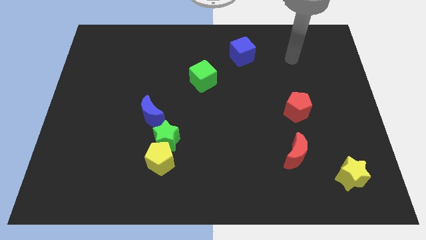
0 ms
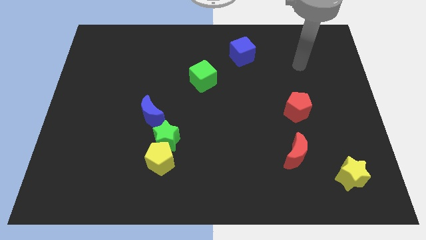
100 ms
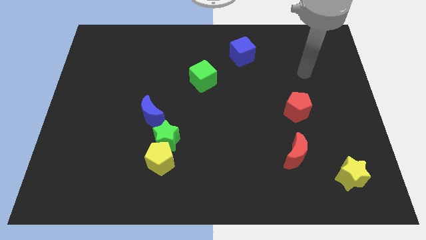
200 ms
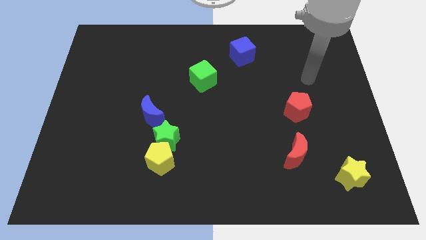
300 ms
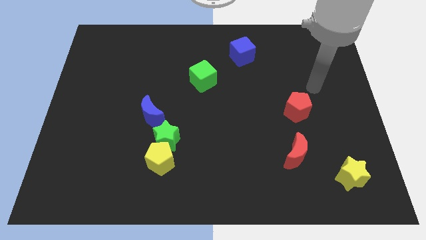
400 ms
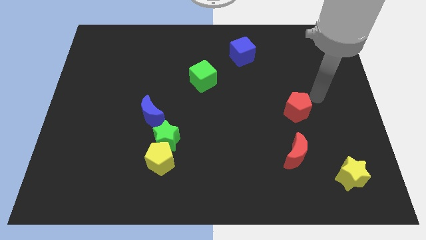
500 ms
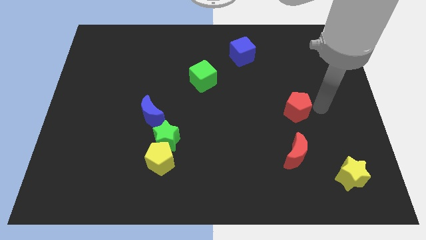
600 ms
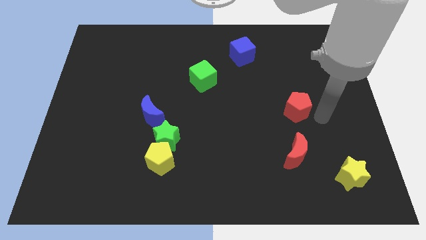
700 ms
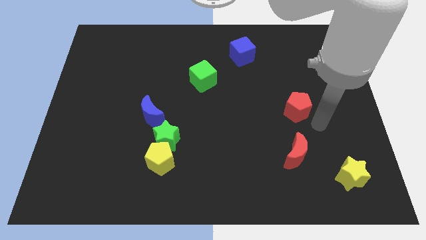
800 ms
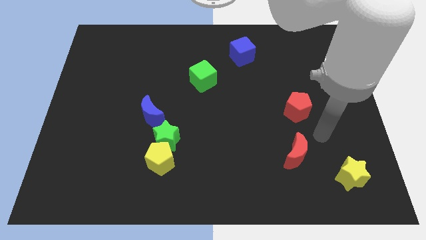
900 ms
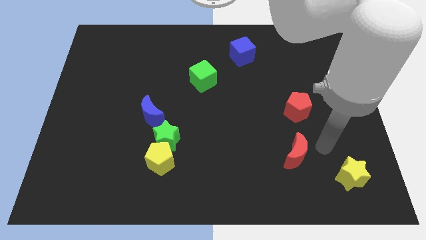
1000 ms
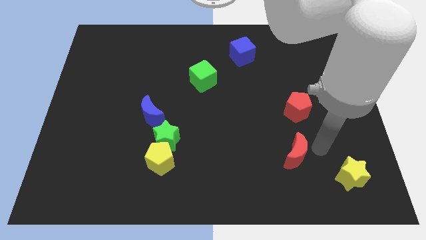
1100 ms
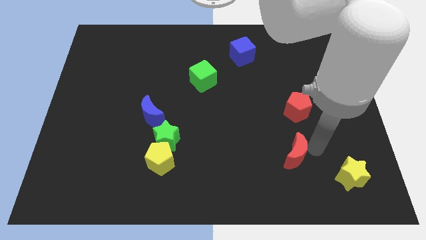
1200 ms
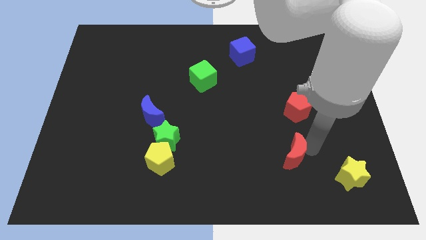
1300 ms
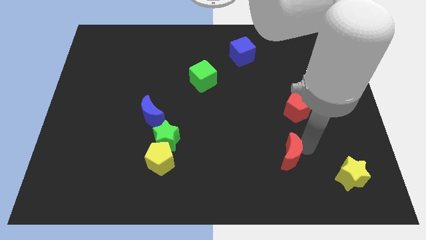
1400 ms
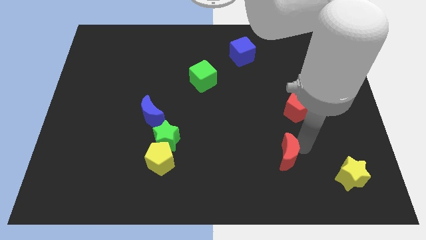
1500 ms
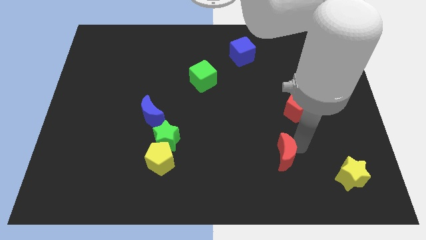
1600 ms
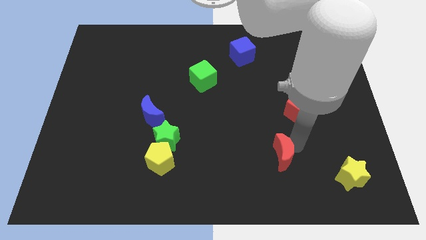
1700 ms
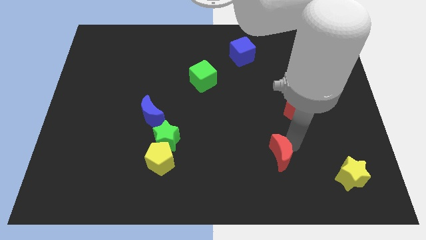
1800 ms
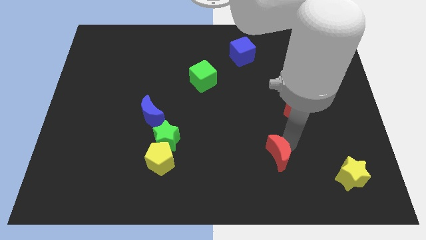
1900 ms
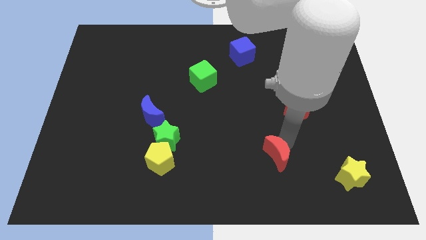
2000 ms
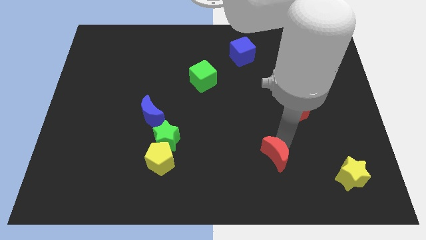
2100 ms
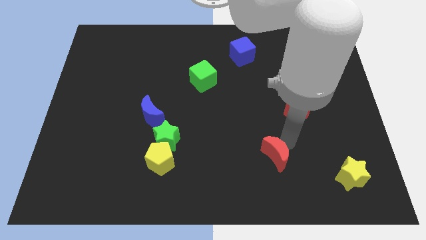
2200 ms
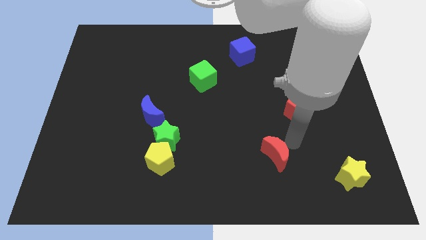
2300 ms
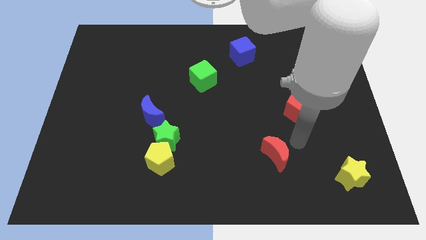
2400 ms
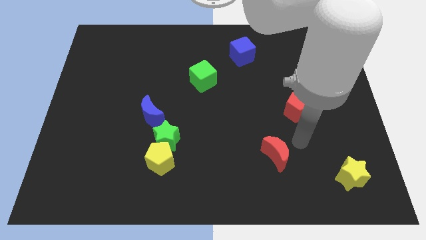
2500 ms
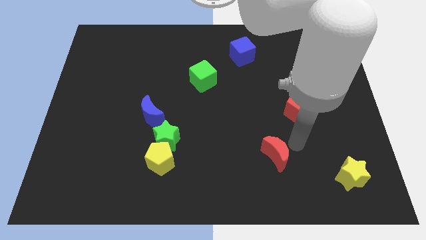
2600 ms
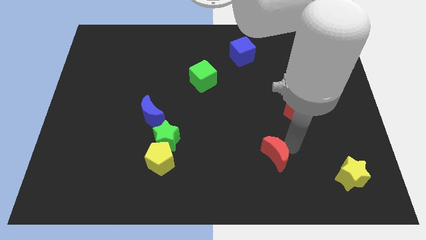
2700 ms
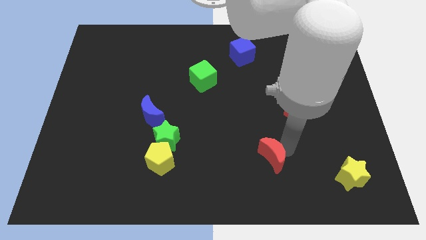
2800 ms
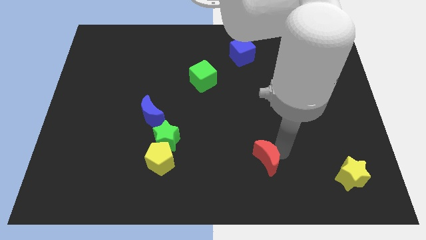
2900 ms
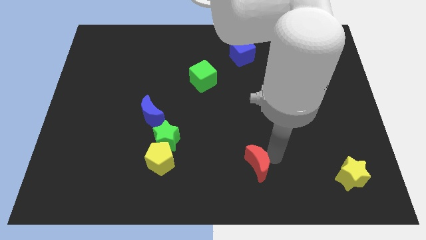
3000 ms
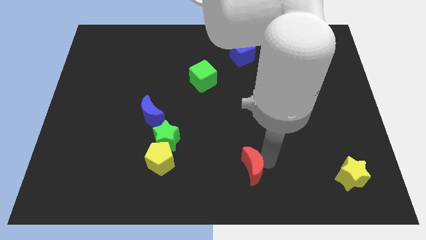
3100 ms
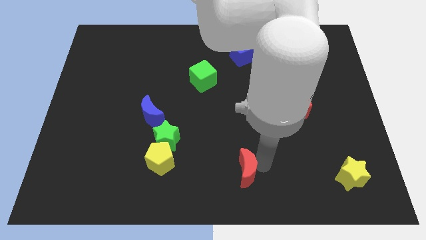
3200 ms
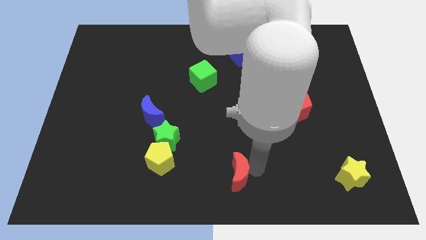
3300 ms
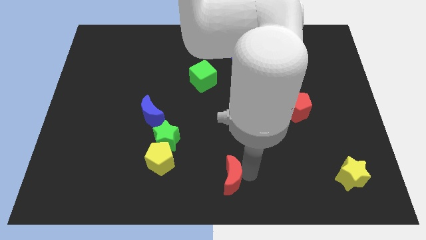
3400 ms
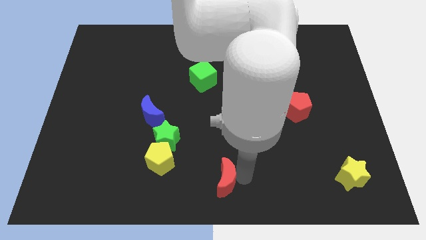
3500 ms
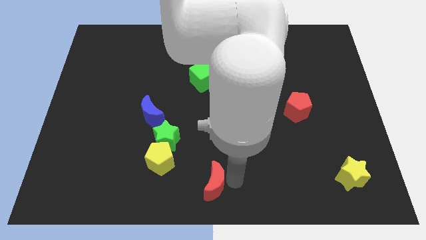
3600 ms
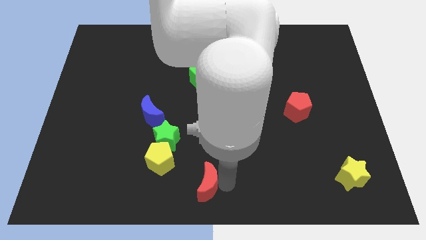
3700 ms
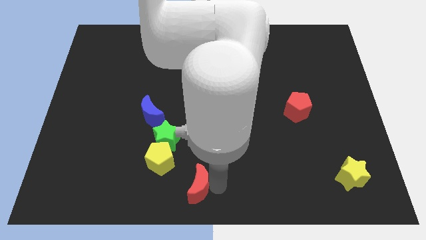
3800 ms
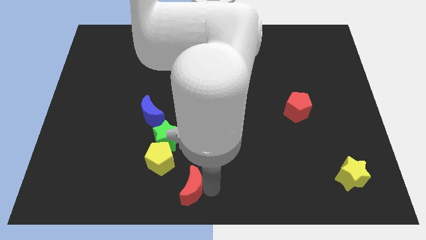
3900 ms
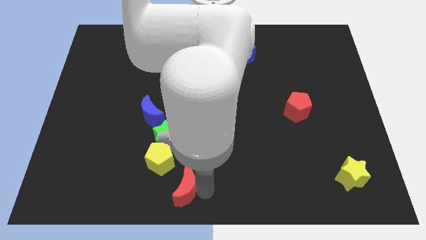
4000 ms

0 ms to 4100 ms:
push the red moon left

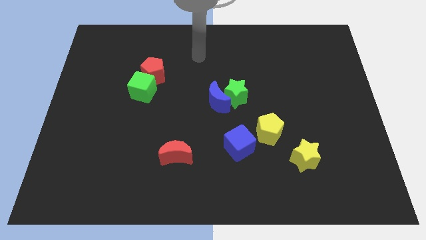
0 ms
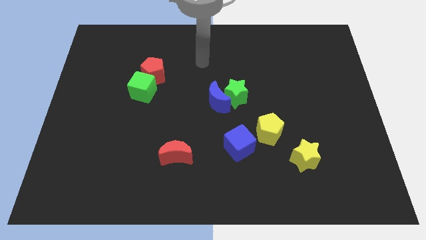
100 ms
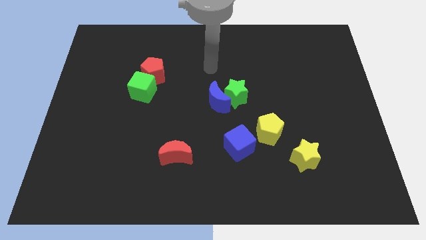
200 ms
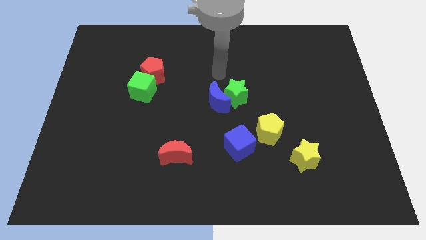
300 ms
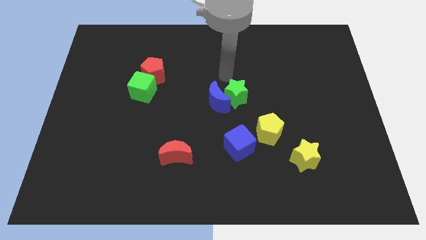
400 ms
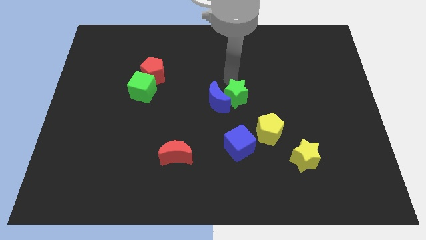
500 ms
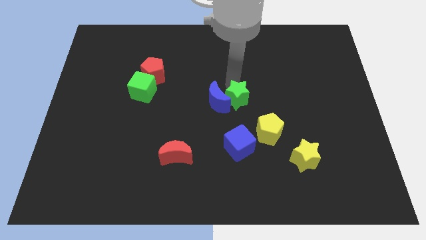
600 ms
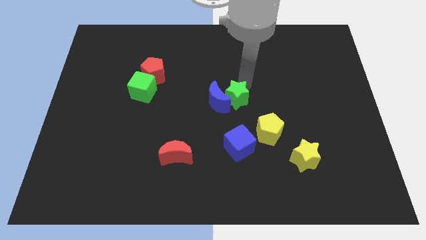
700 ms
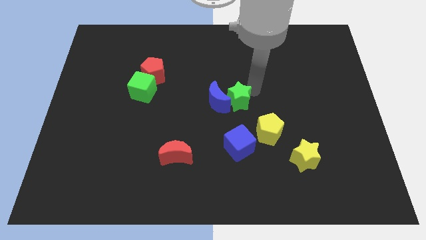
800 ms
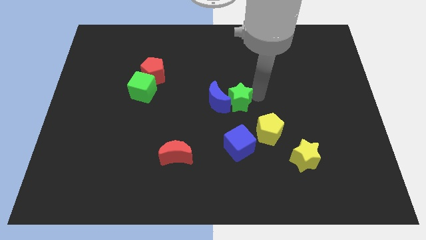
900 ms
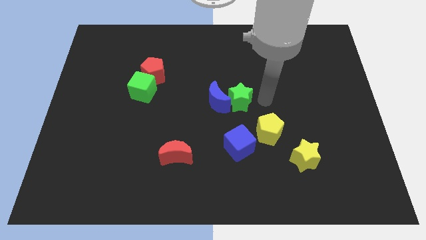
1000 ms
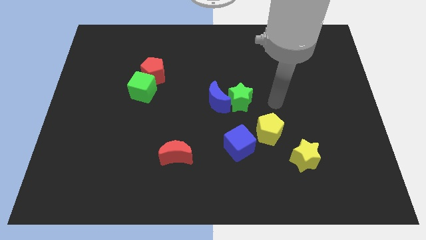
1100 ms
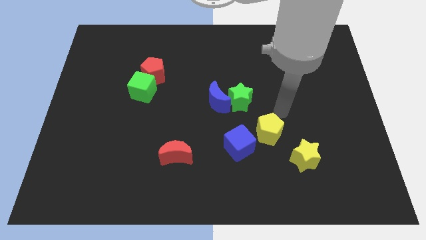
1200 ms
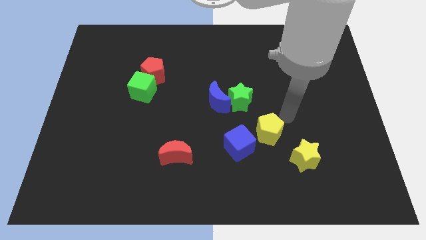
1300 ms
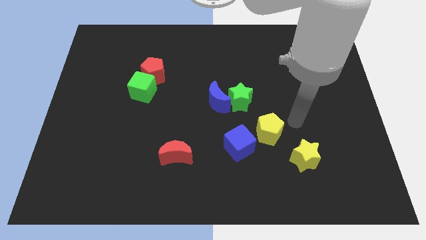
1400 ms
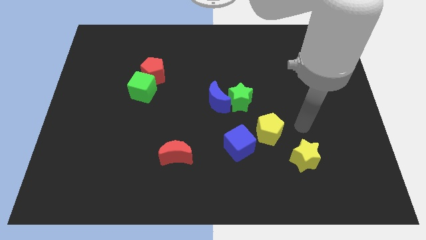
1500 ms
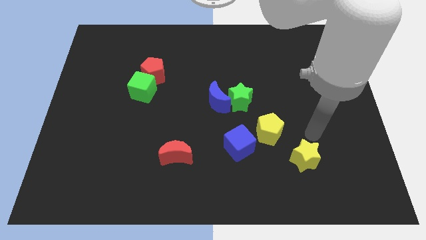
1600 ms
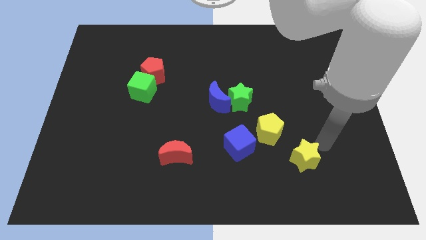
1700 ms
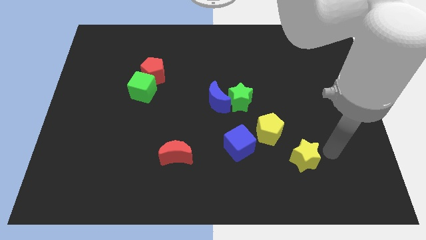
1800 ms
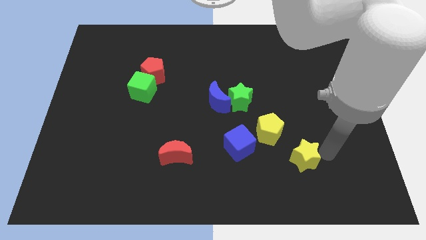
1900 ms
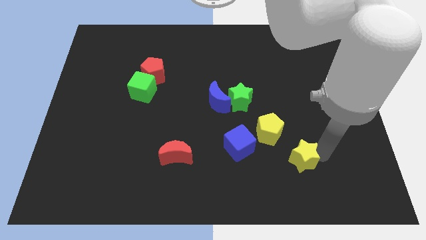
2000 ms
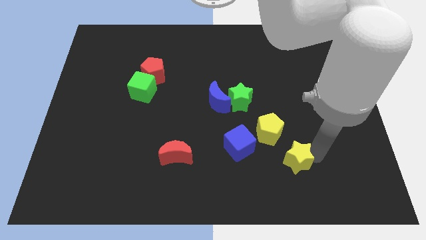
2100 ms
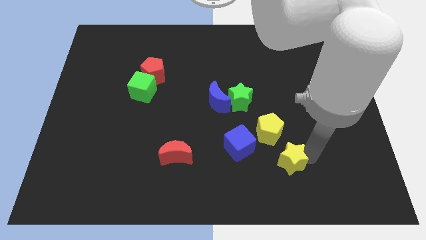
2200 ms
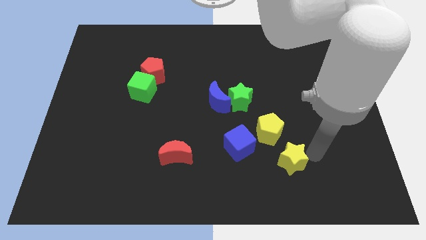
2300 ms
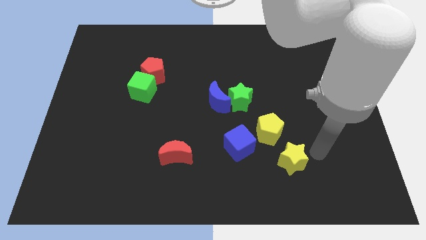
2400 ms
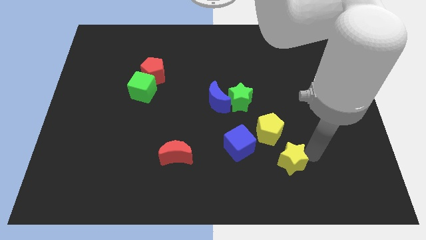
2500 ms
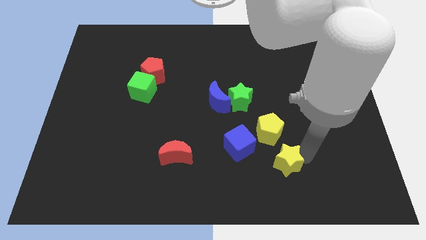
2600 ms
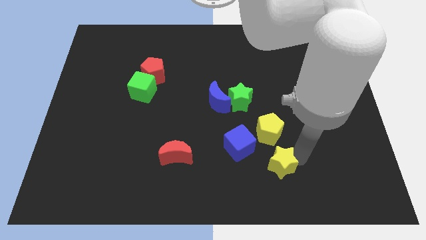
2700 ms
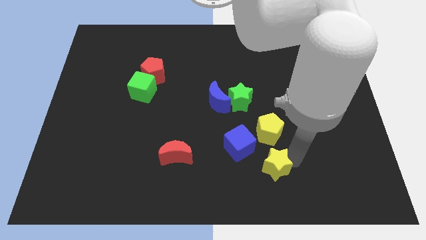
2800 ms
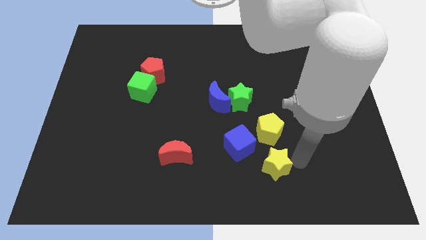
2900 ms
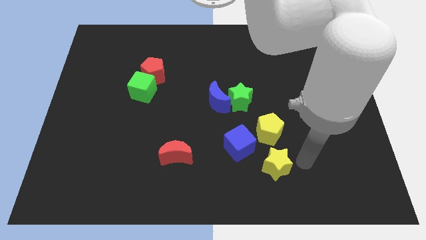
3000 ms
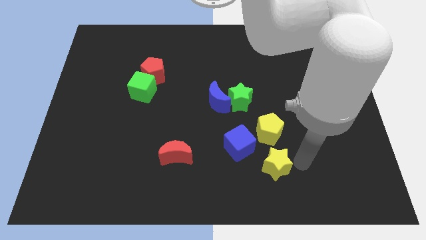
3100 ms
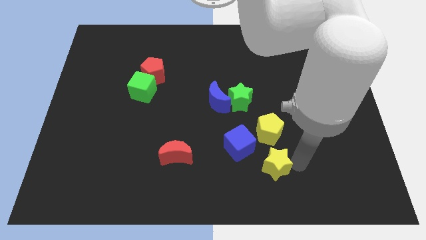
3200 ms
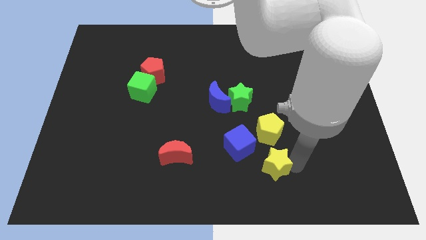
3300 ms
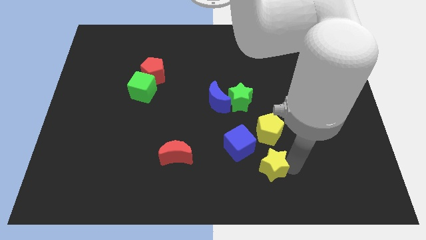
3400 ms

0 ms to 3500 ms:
slide the yellow star to the left slightly

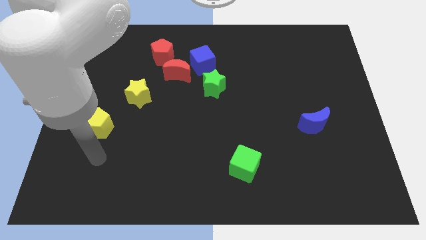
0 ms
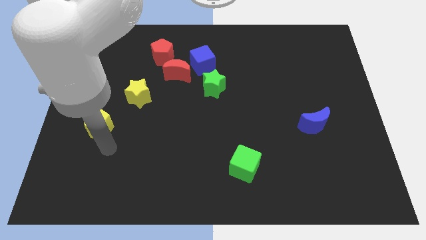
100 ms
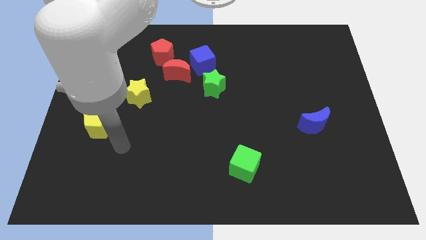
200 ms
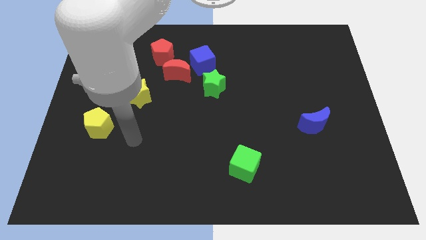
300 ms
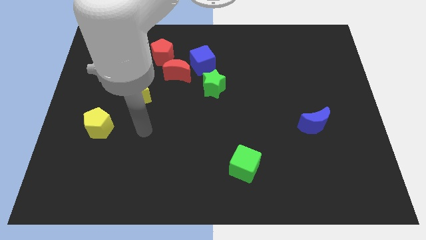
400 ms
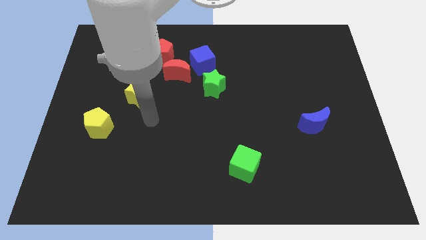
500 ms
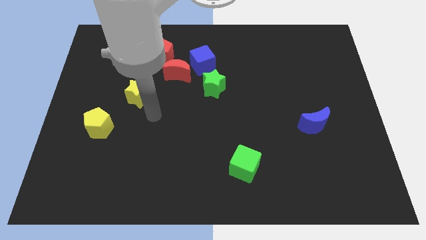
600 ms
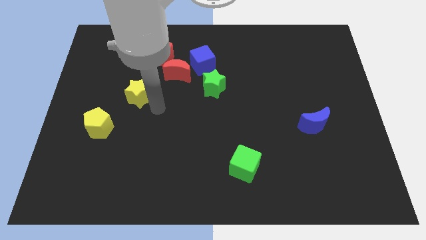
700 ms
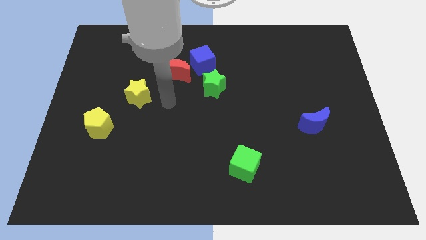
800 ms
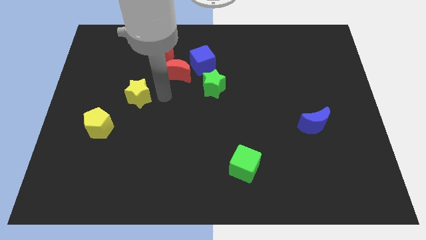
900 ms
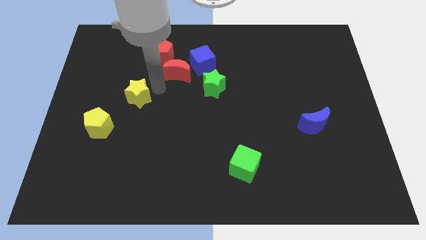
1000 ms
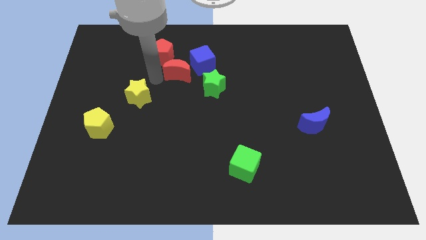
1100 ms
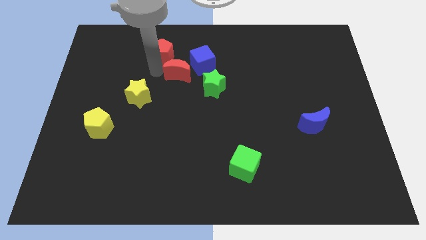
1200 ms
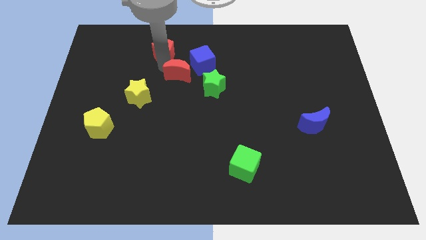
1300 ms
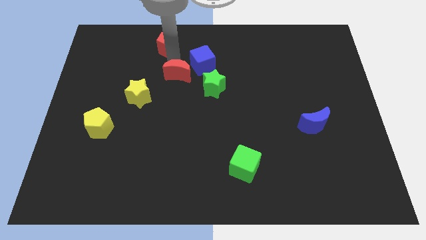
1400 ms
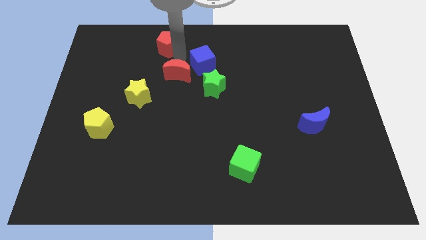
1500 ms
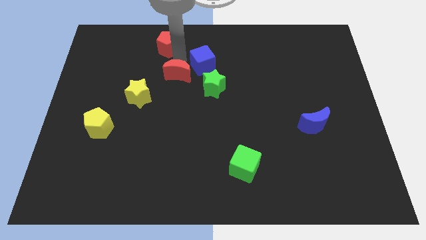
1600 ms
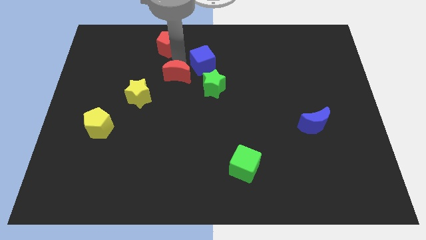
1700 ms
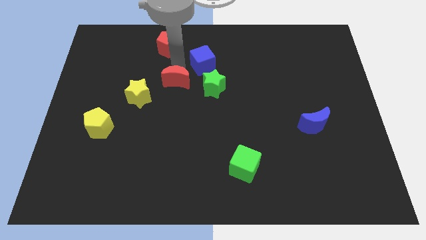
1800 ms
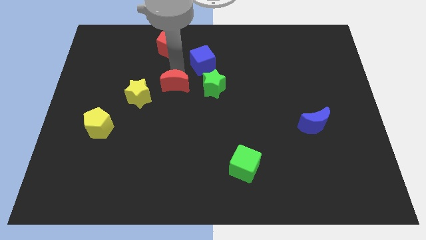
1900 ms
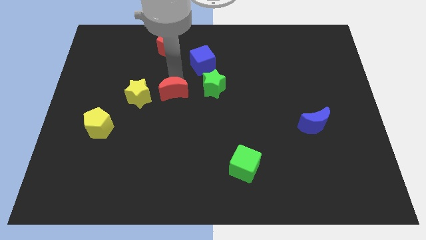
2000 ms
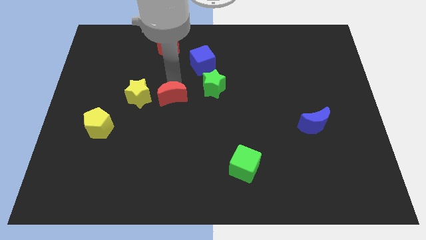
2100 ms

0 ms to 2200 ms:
slide the red moon slightly down
